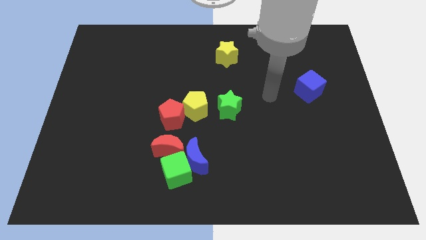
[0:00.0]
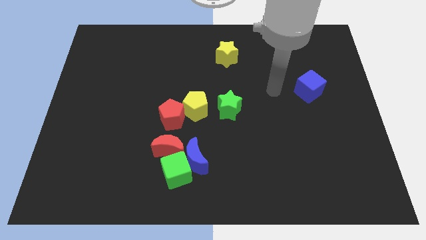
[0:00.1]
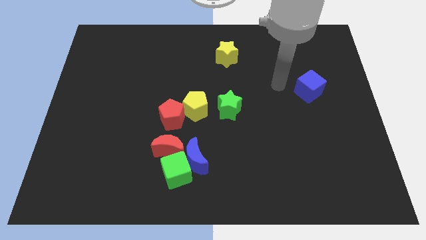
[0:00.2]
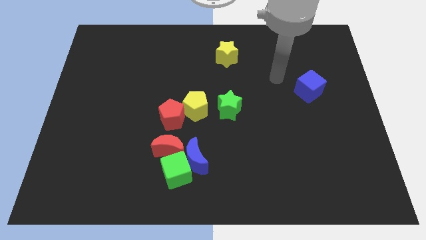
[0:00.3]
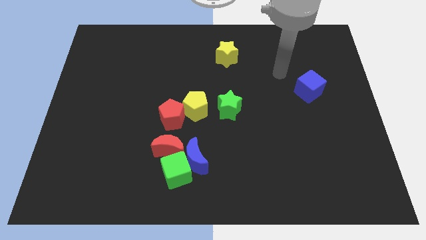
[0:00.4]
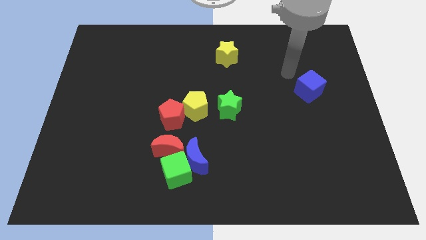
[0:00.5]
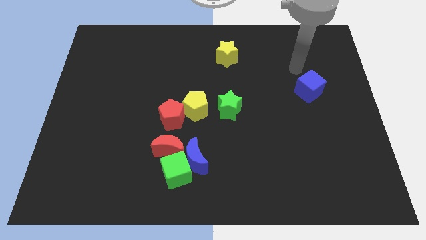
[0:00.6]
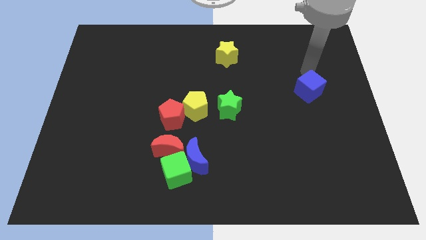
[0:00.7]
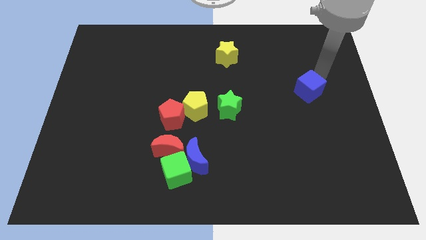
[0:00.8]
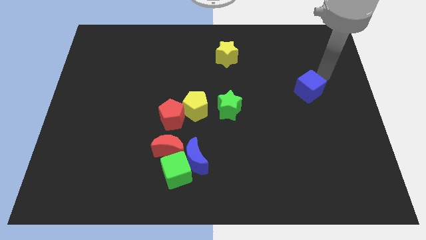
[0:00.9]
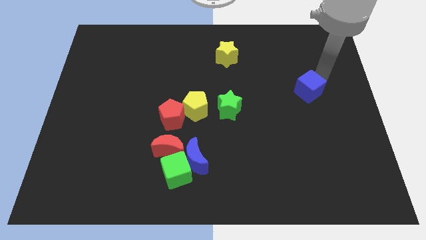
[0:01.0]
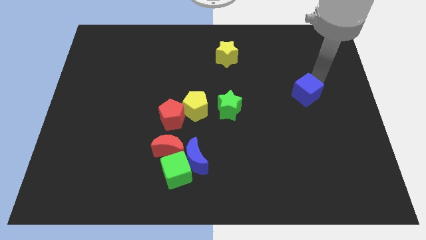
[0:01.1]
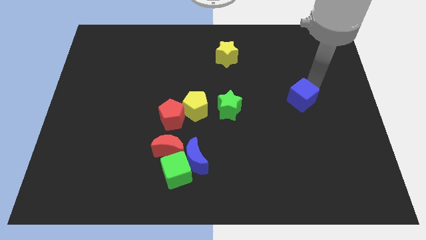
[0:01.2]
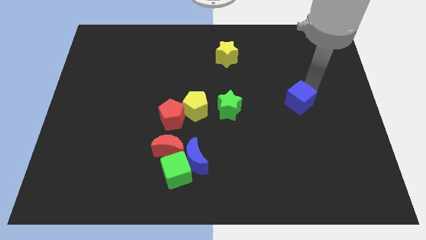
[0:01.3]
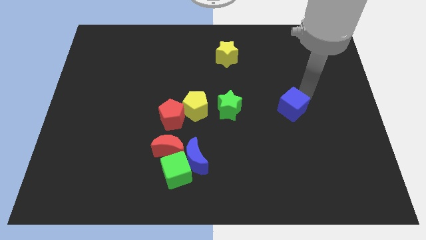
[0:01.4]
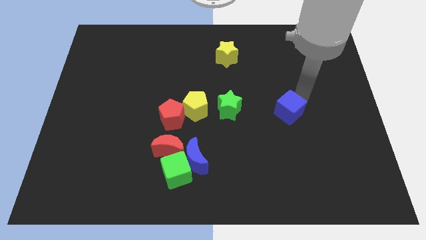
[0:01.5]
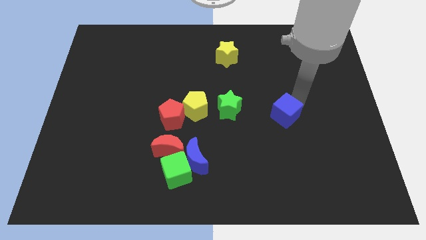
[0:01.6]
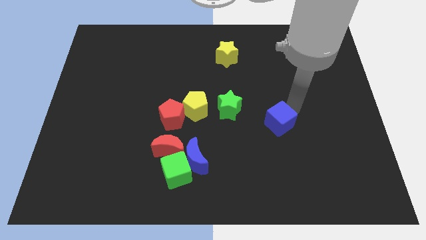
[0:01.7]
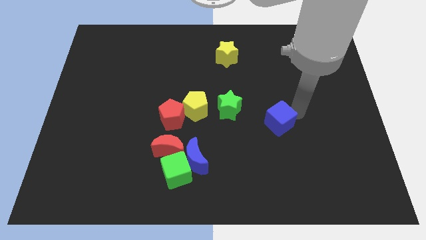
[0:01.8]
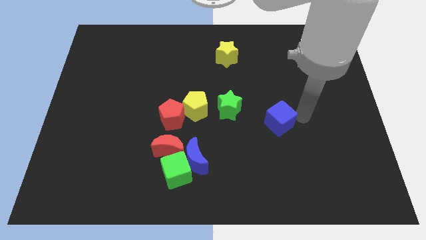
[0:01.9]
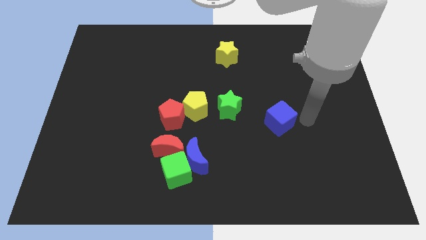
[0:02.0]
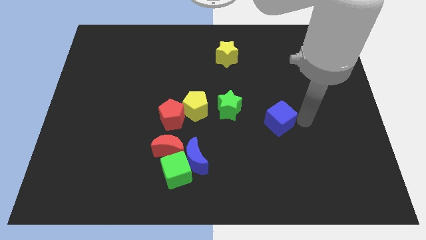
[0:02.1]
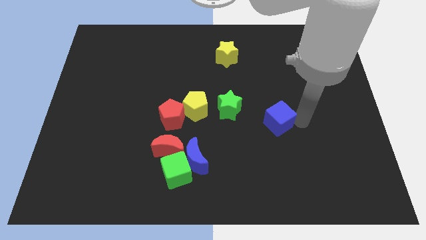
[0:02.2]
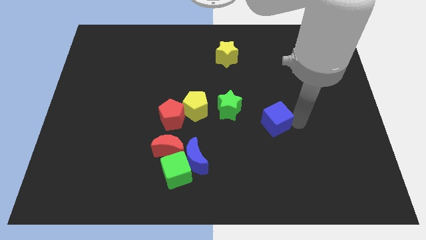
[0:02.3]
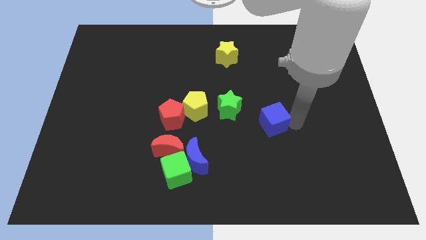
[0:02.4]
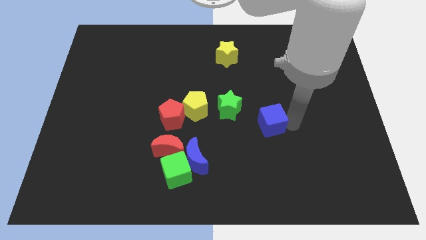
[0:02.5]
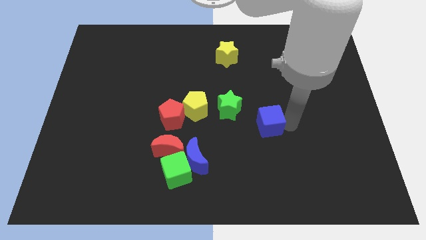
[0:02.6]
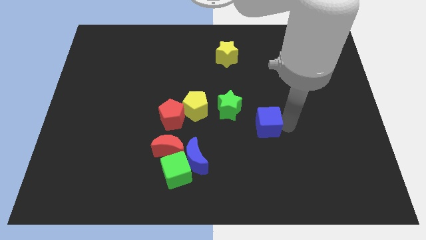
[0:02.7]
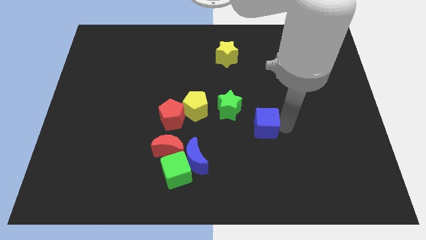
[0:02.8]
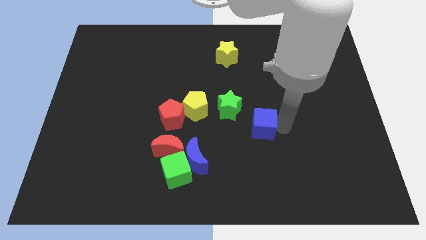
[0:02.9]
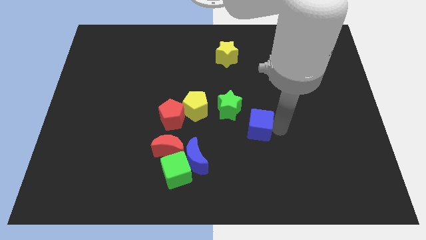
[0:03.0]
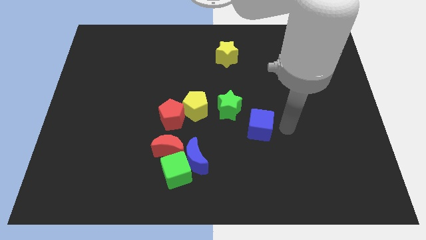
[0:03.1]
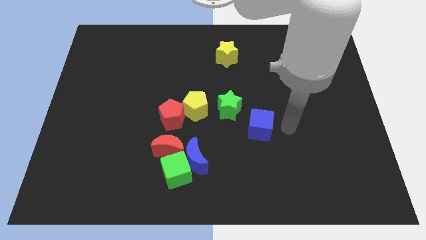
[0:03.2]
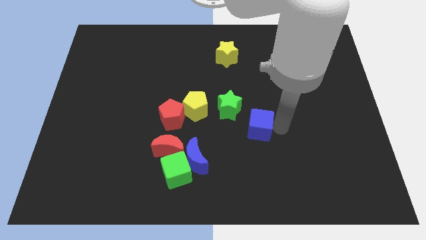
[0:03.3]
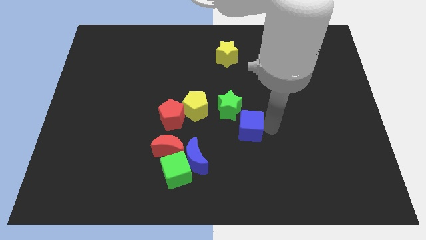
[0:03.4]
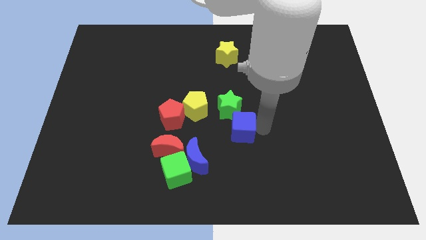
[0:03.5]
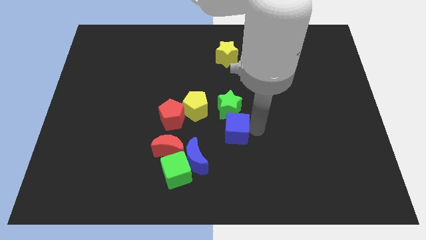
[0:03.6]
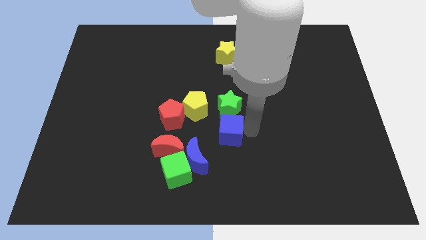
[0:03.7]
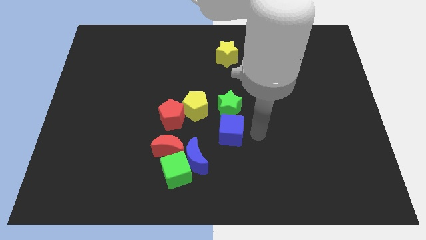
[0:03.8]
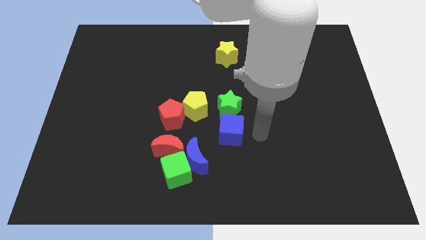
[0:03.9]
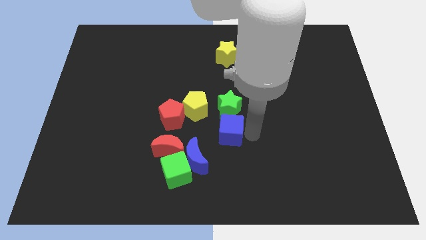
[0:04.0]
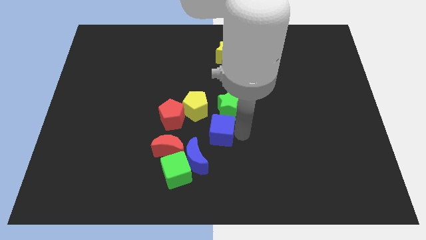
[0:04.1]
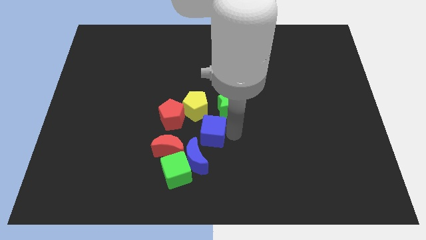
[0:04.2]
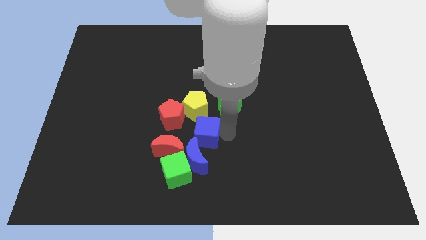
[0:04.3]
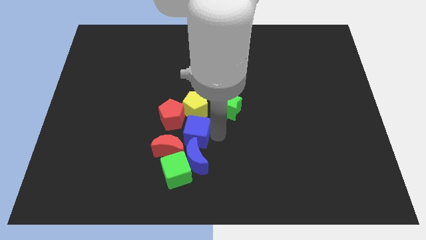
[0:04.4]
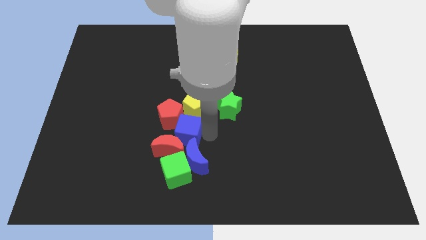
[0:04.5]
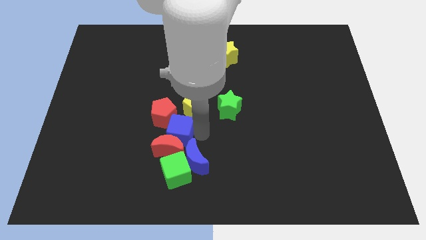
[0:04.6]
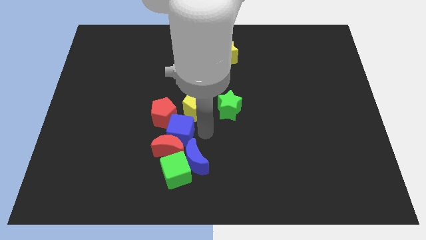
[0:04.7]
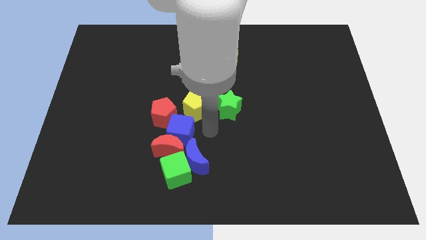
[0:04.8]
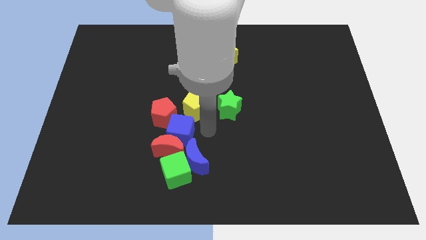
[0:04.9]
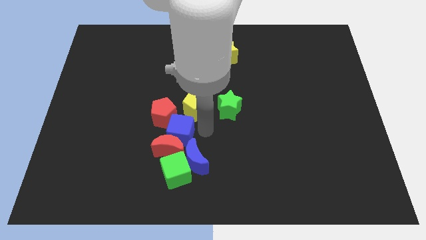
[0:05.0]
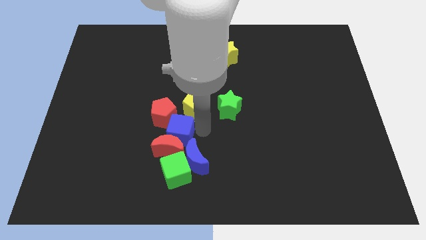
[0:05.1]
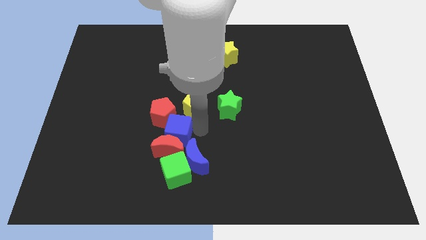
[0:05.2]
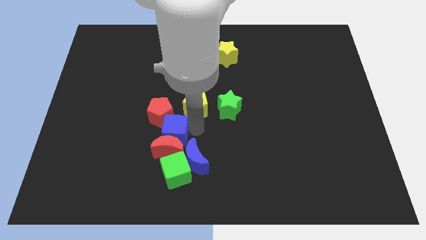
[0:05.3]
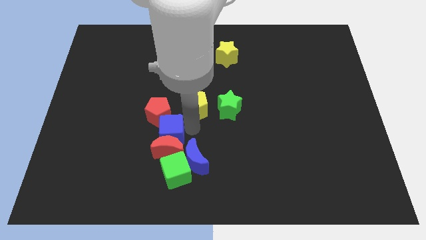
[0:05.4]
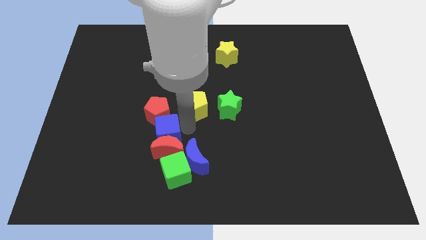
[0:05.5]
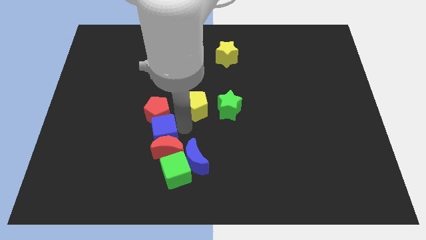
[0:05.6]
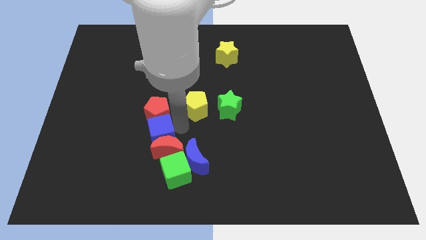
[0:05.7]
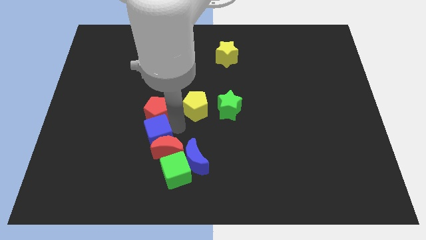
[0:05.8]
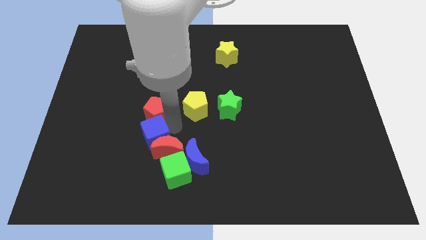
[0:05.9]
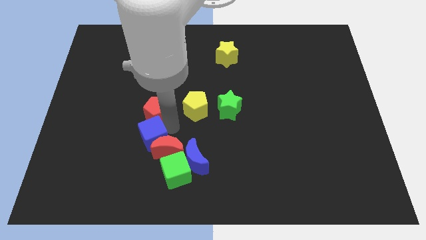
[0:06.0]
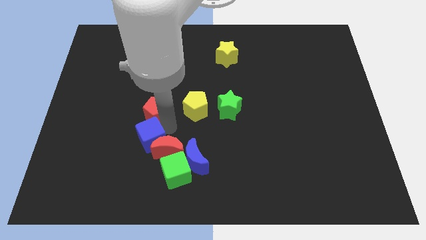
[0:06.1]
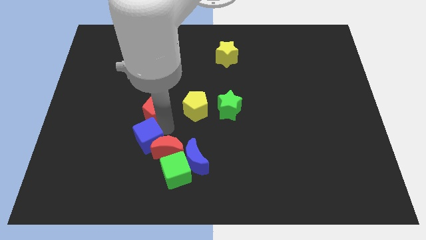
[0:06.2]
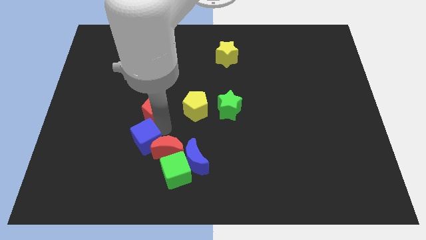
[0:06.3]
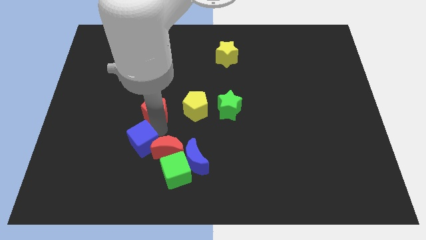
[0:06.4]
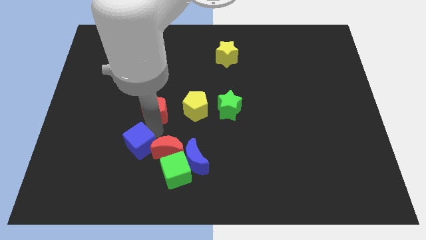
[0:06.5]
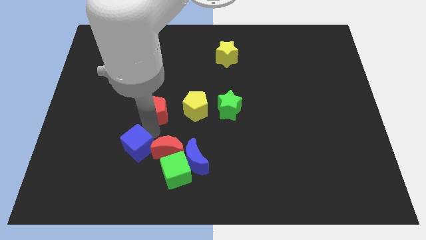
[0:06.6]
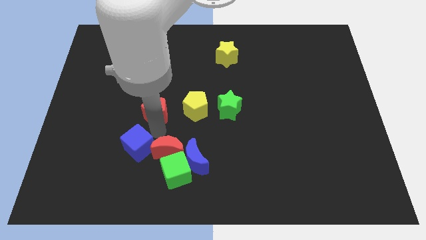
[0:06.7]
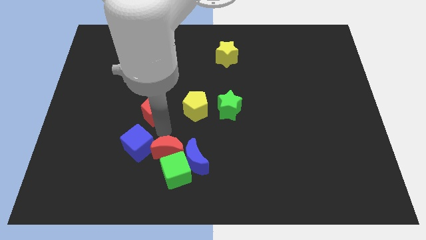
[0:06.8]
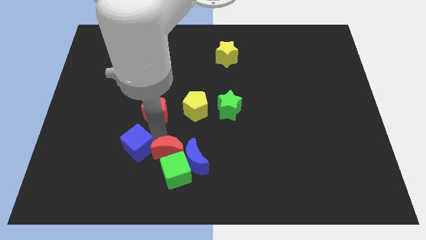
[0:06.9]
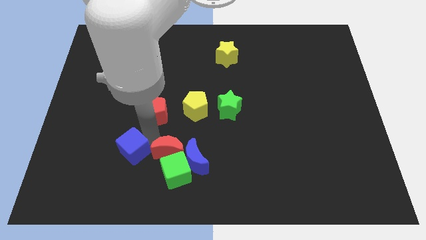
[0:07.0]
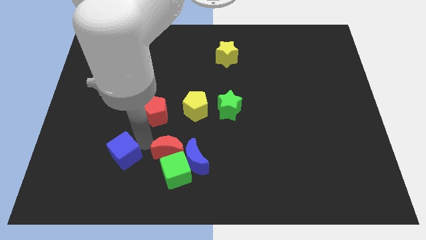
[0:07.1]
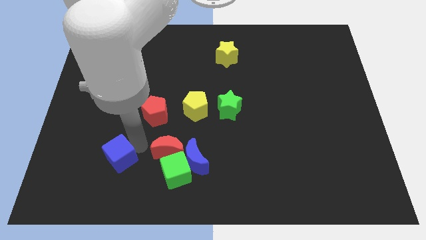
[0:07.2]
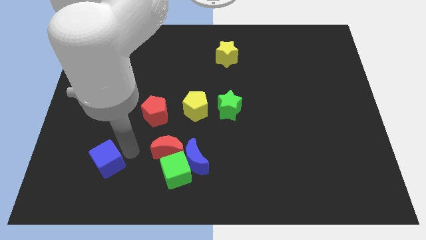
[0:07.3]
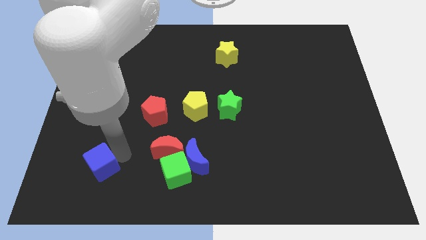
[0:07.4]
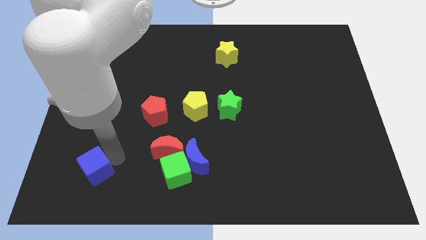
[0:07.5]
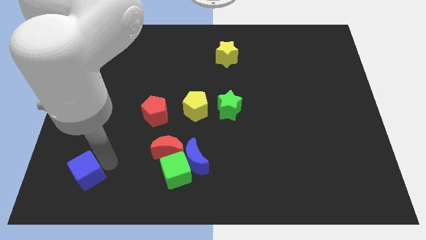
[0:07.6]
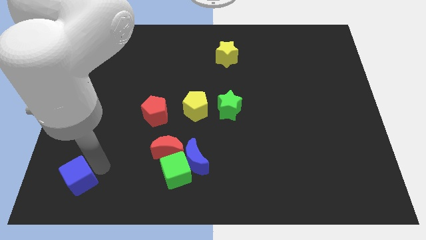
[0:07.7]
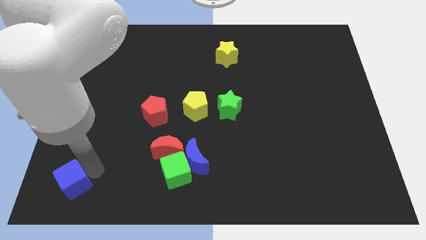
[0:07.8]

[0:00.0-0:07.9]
move the blue cube to the lower left corner
